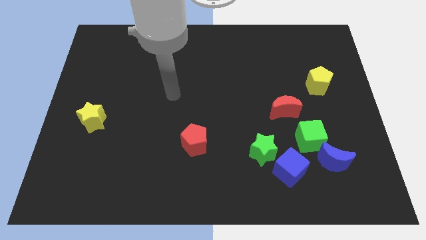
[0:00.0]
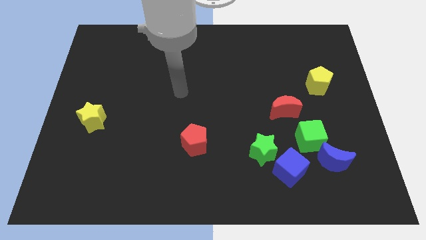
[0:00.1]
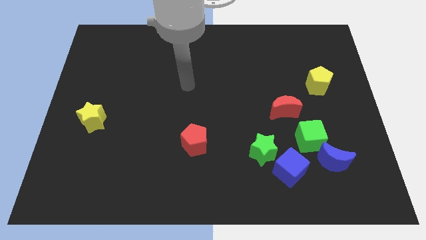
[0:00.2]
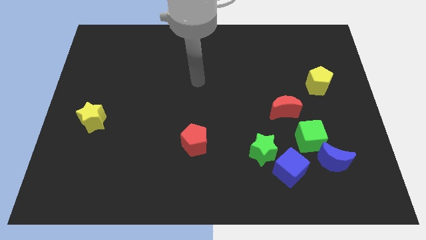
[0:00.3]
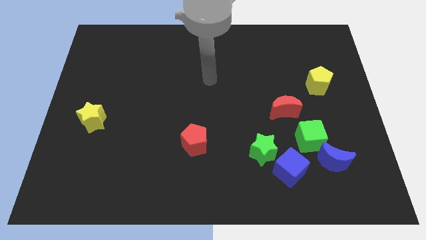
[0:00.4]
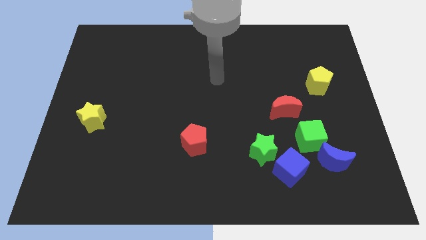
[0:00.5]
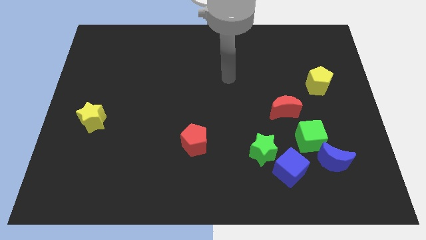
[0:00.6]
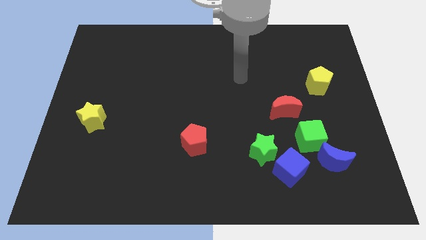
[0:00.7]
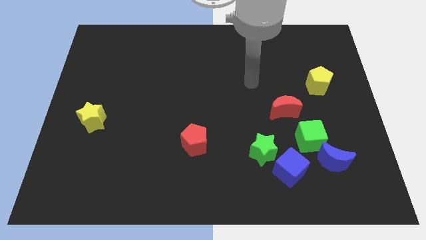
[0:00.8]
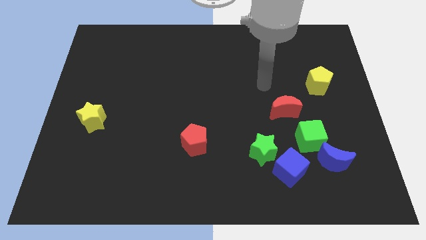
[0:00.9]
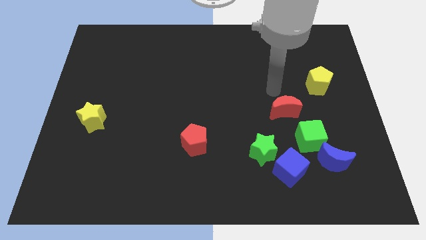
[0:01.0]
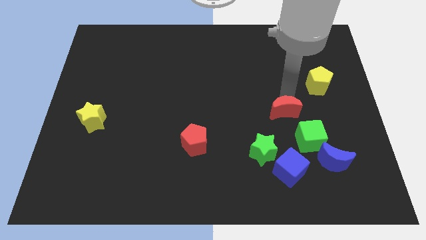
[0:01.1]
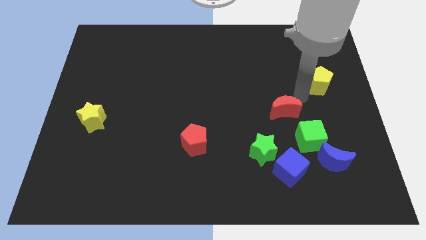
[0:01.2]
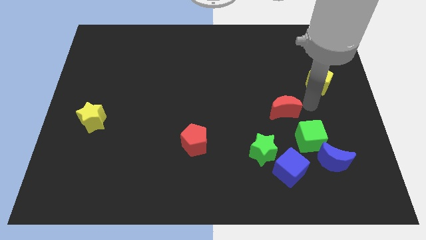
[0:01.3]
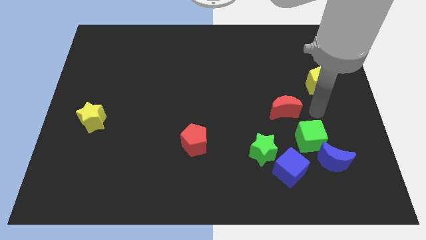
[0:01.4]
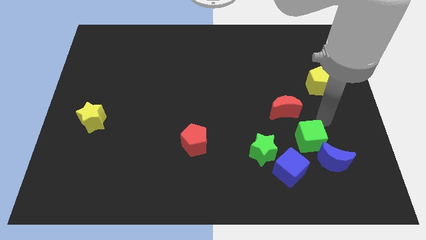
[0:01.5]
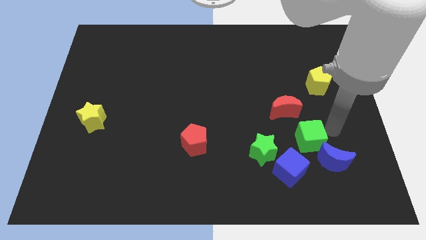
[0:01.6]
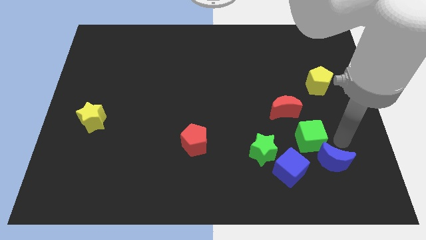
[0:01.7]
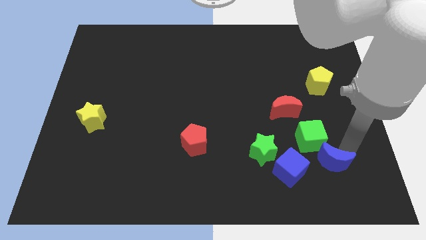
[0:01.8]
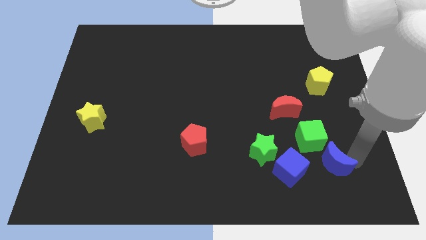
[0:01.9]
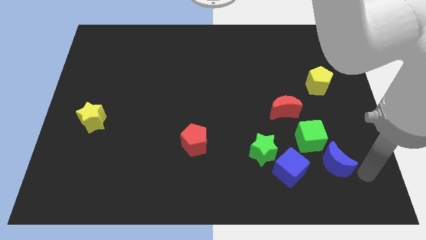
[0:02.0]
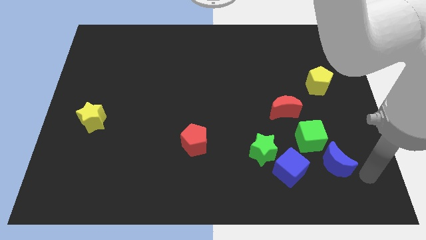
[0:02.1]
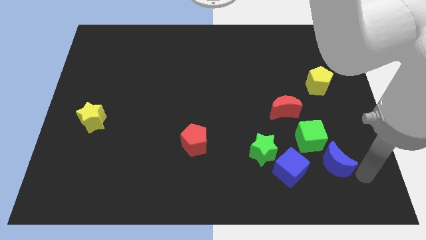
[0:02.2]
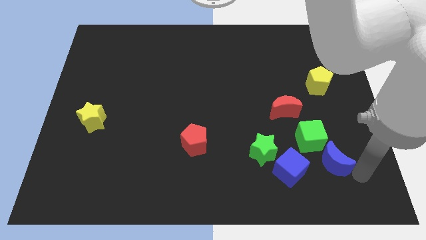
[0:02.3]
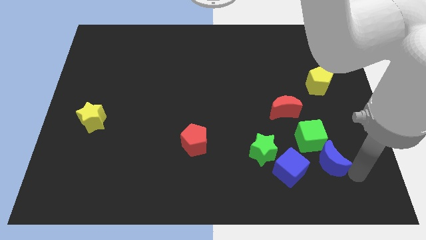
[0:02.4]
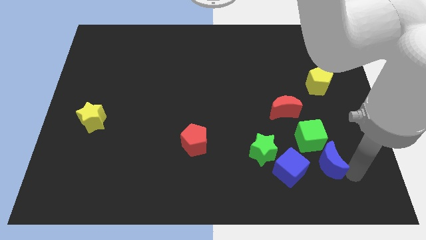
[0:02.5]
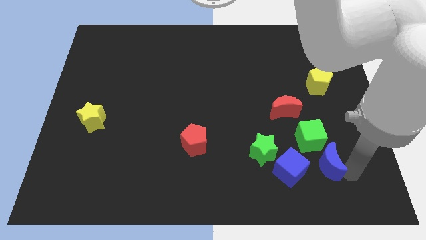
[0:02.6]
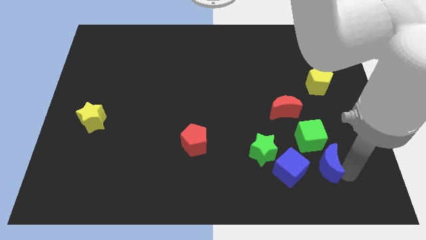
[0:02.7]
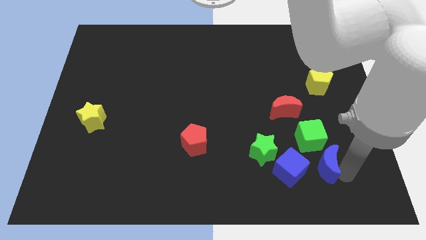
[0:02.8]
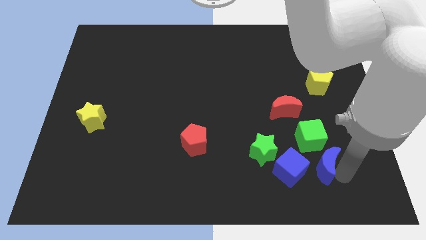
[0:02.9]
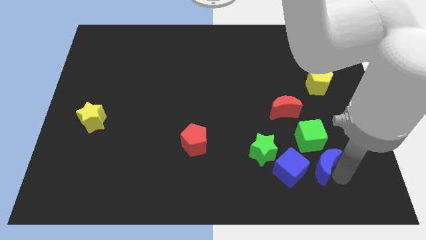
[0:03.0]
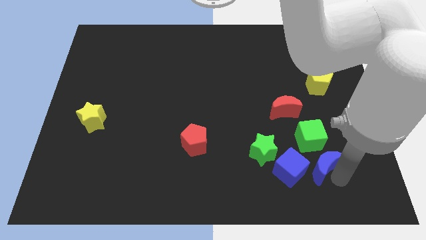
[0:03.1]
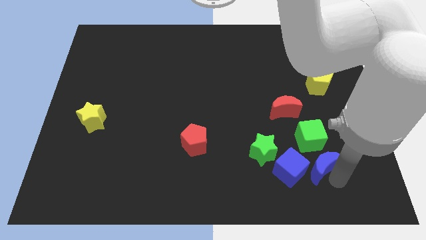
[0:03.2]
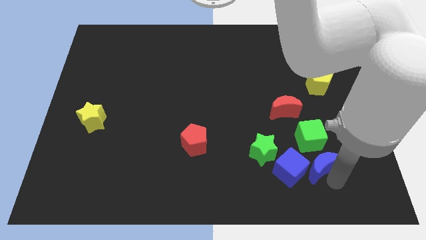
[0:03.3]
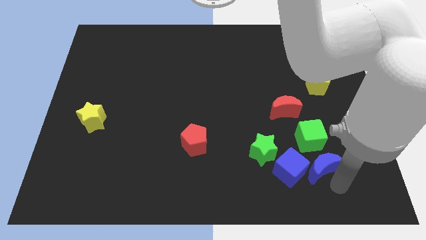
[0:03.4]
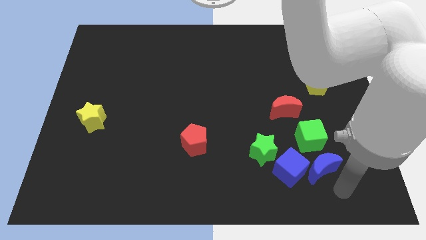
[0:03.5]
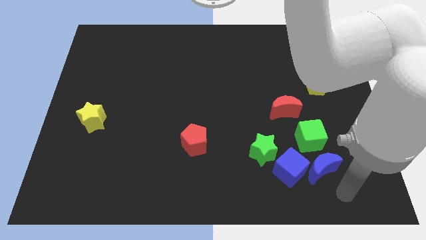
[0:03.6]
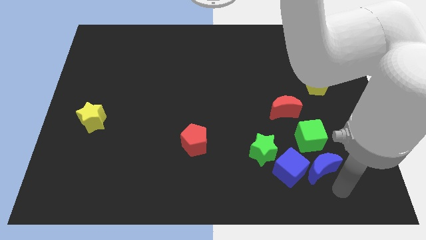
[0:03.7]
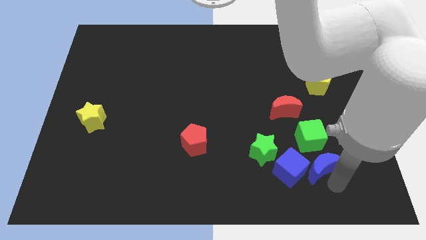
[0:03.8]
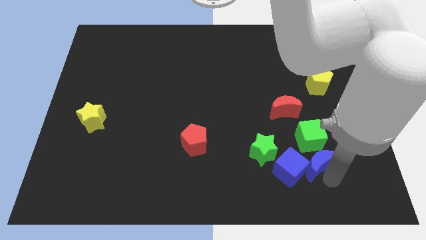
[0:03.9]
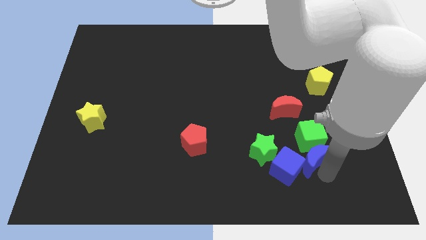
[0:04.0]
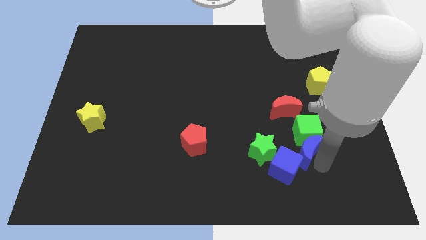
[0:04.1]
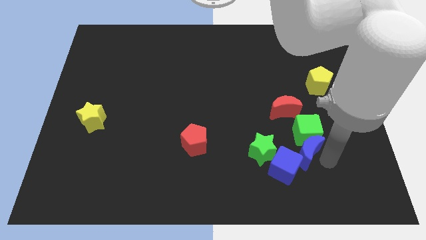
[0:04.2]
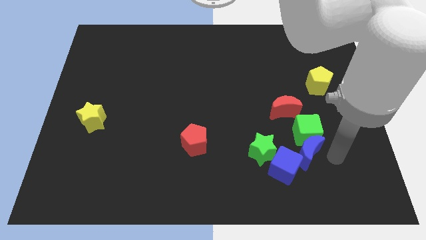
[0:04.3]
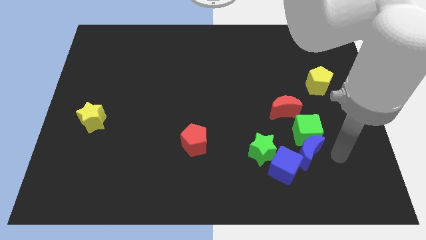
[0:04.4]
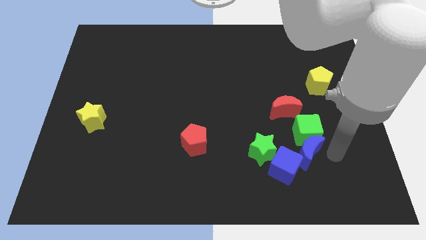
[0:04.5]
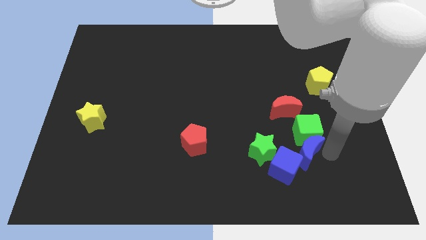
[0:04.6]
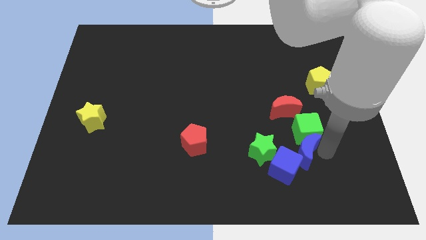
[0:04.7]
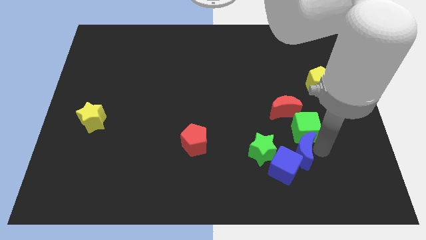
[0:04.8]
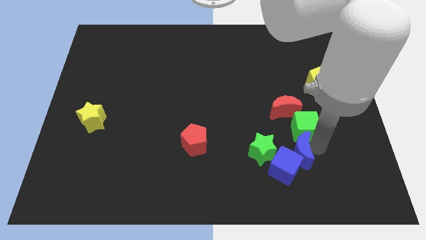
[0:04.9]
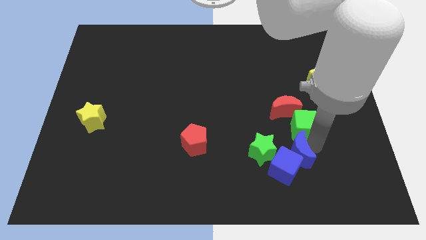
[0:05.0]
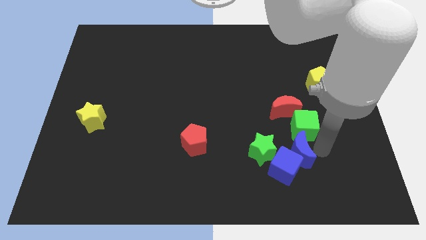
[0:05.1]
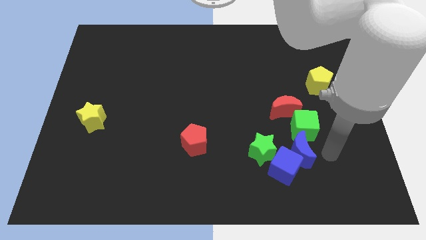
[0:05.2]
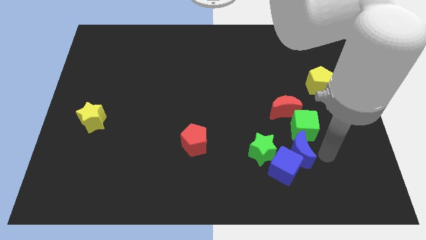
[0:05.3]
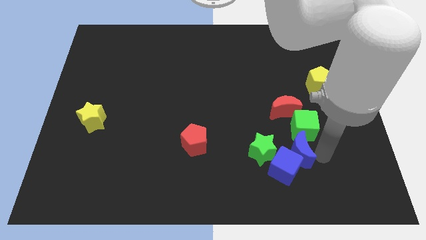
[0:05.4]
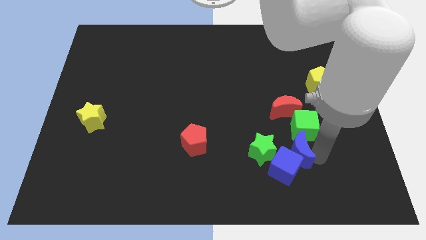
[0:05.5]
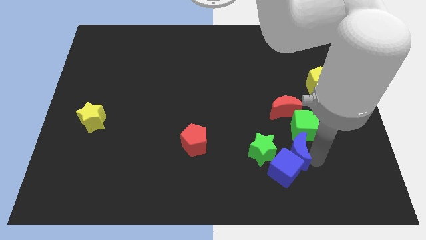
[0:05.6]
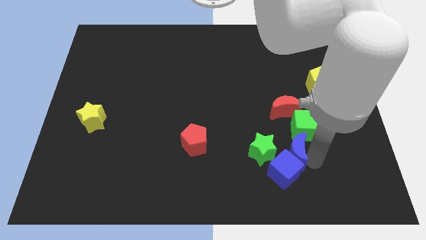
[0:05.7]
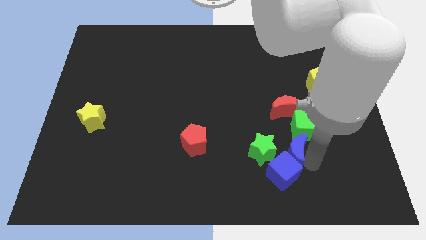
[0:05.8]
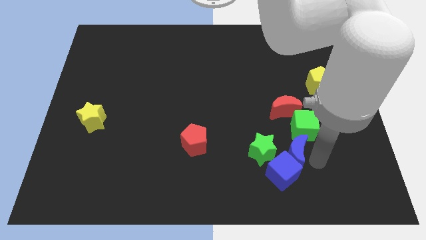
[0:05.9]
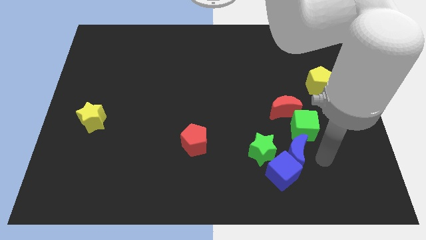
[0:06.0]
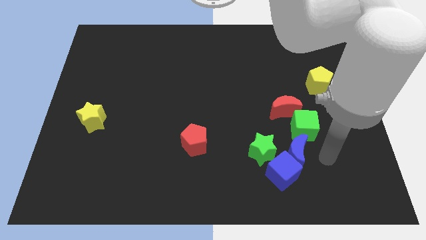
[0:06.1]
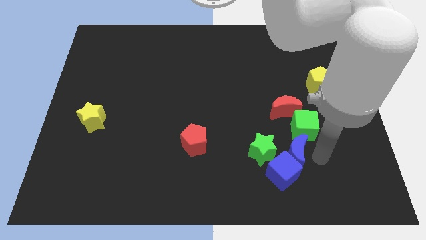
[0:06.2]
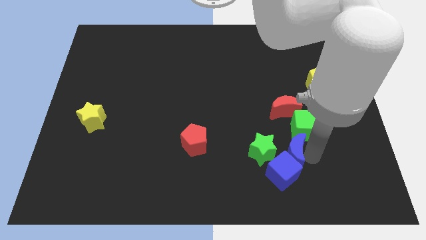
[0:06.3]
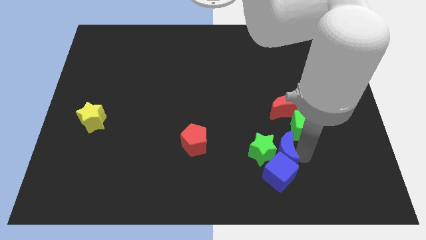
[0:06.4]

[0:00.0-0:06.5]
push the blue moon next to the green star

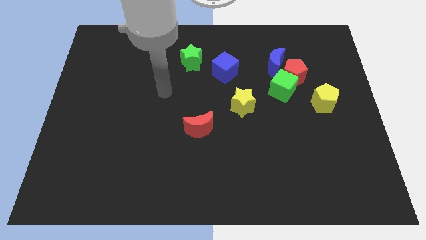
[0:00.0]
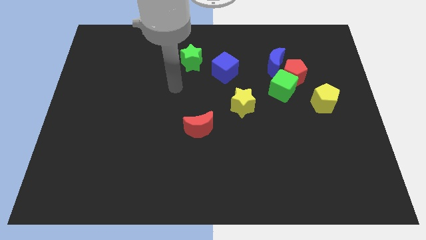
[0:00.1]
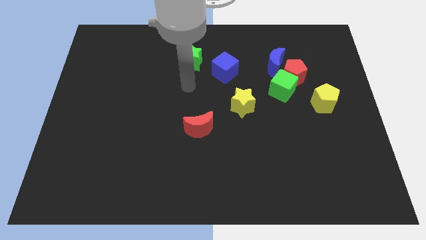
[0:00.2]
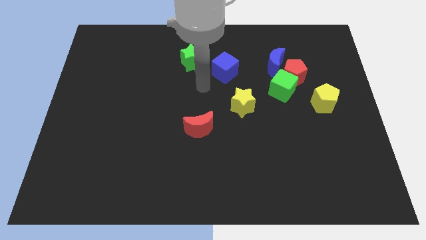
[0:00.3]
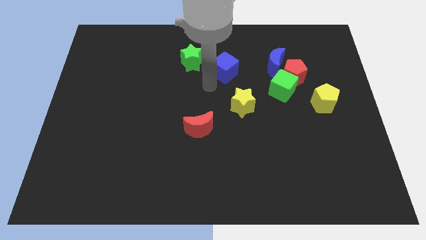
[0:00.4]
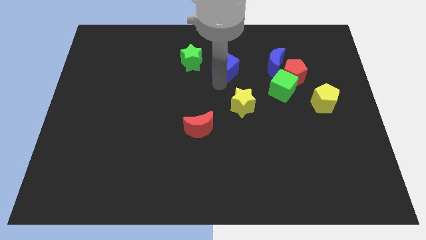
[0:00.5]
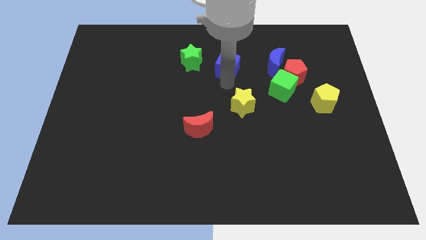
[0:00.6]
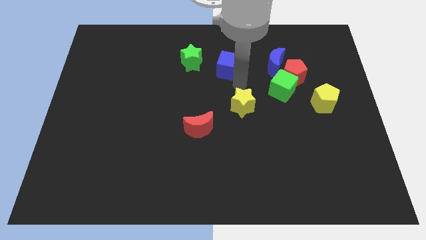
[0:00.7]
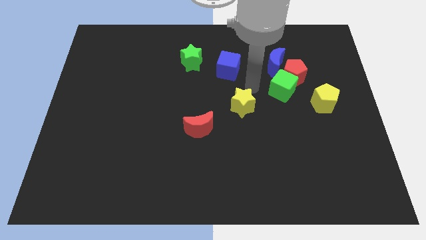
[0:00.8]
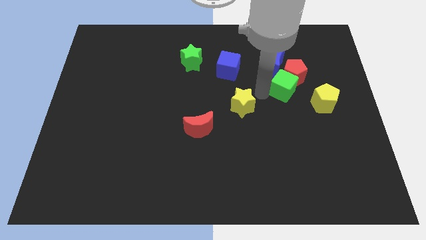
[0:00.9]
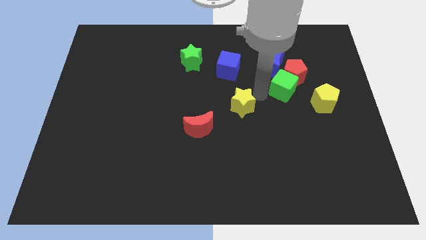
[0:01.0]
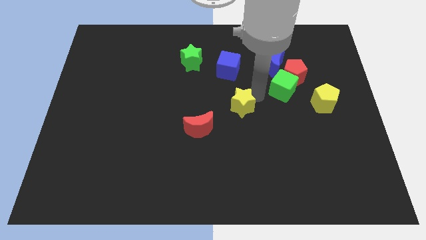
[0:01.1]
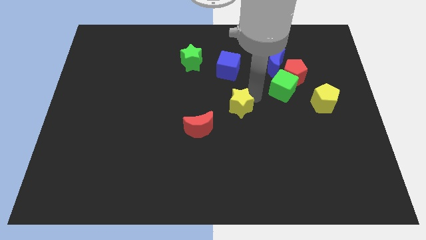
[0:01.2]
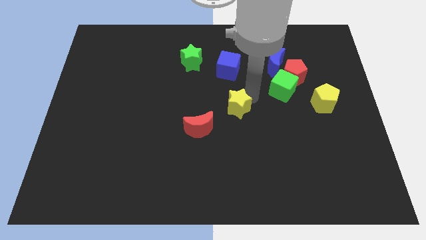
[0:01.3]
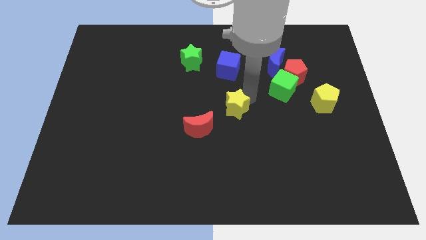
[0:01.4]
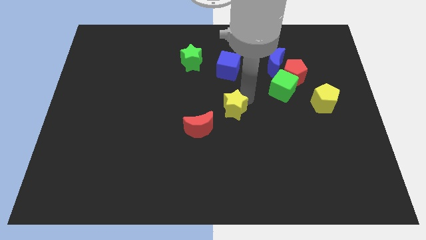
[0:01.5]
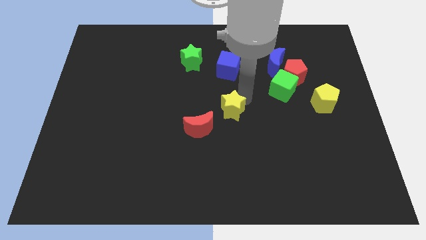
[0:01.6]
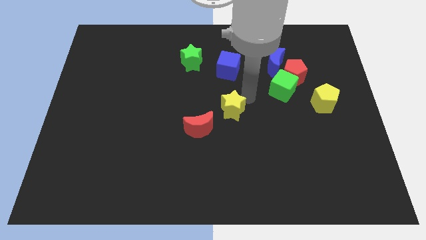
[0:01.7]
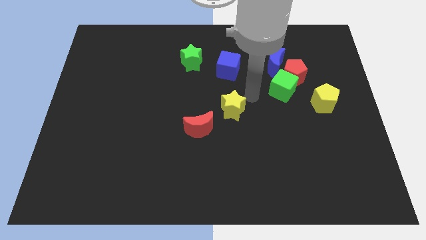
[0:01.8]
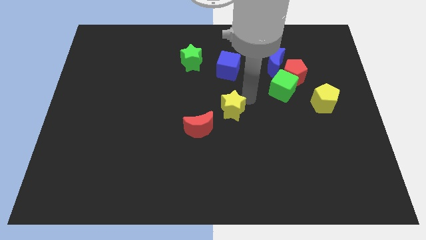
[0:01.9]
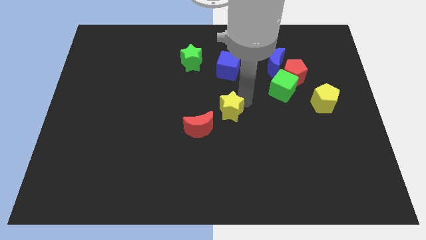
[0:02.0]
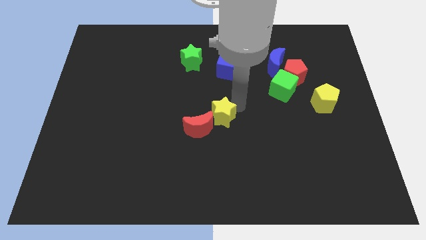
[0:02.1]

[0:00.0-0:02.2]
put the yellow star next to the red moon
